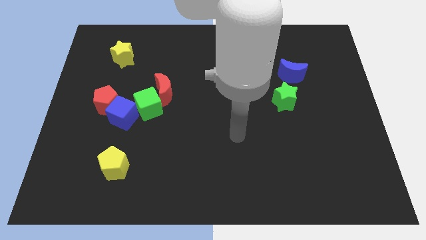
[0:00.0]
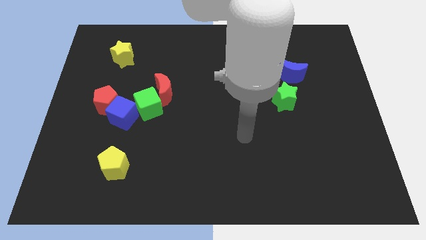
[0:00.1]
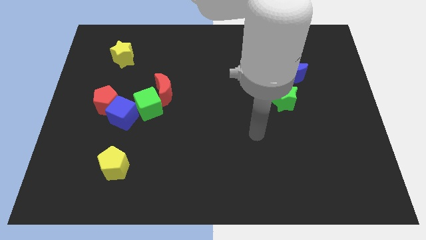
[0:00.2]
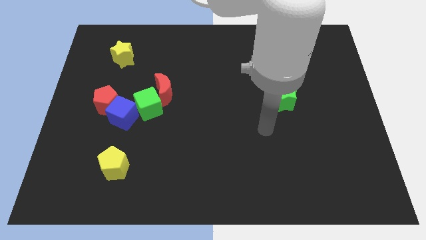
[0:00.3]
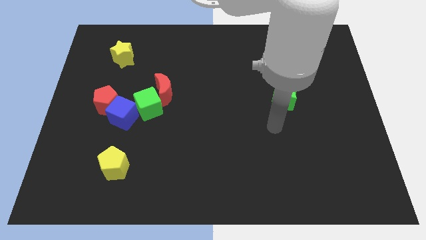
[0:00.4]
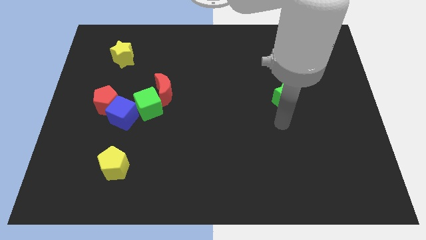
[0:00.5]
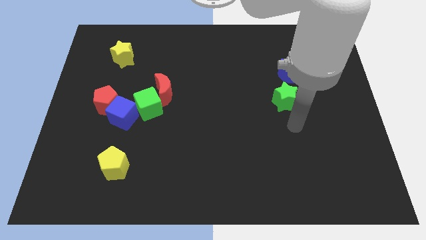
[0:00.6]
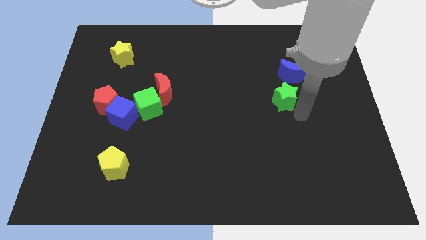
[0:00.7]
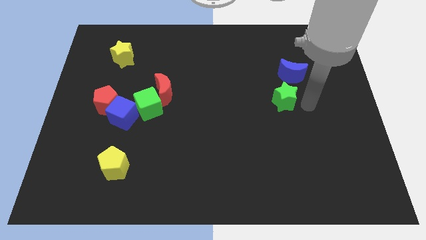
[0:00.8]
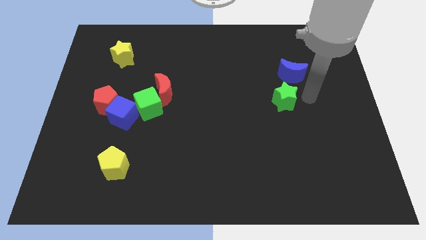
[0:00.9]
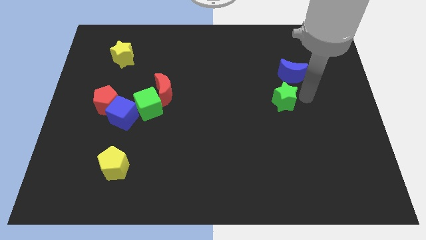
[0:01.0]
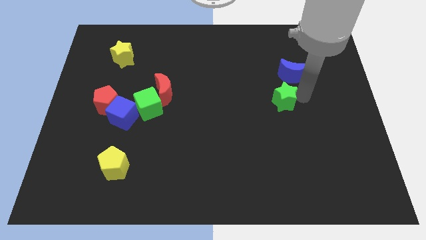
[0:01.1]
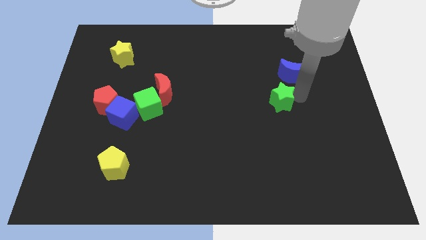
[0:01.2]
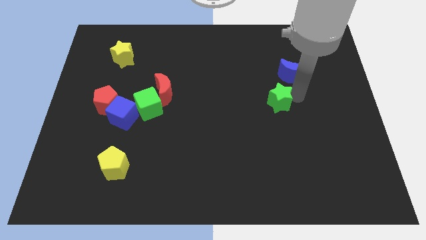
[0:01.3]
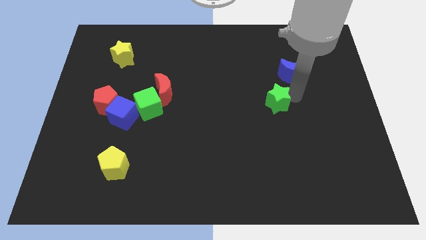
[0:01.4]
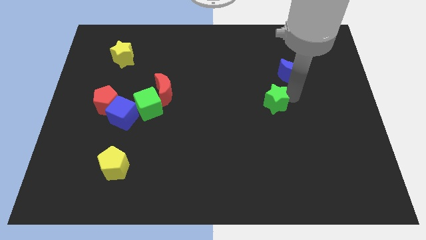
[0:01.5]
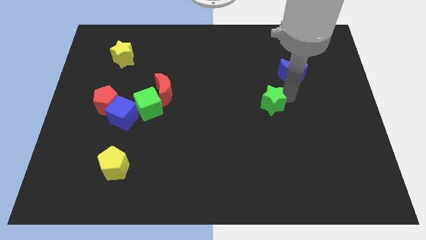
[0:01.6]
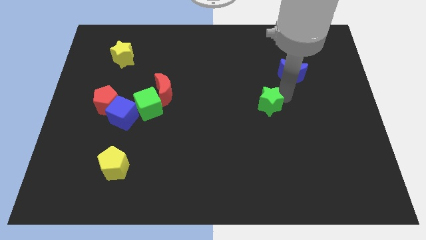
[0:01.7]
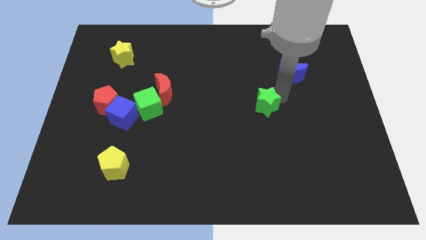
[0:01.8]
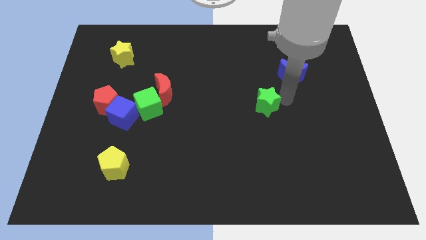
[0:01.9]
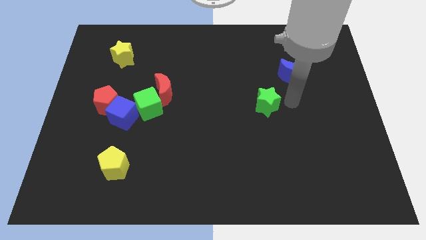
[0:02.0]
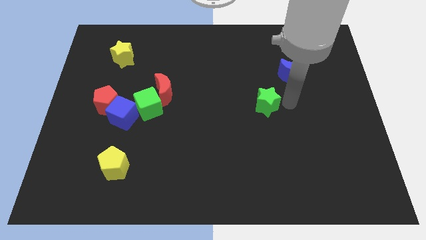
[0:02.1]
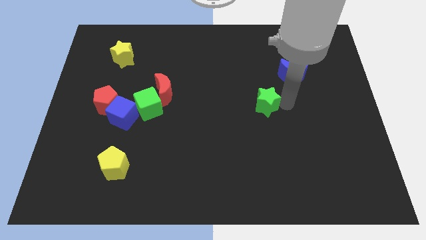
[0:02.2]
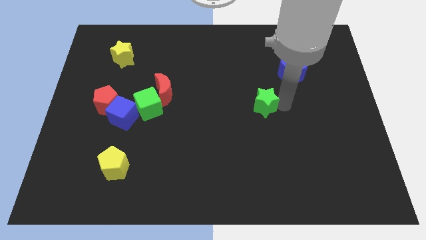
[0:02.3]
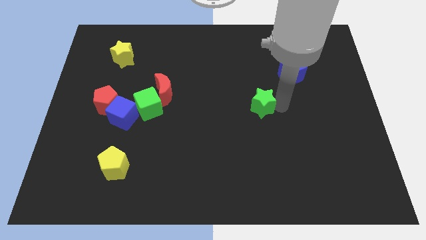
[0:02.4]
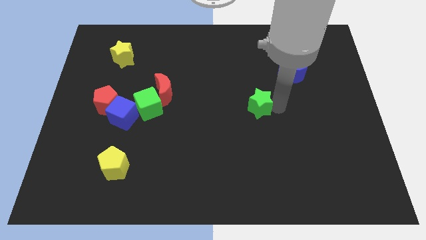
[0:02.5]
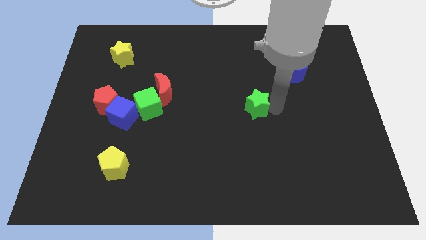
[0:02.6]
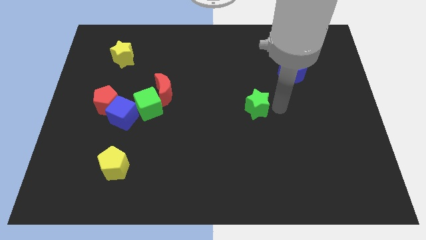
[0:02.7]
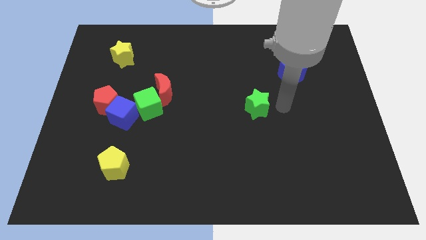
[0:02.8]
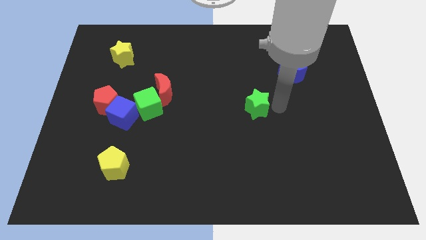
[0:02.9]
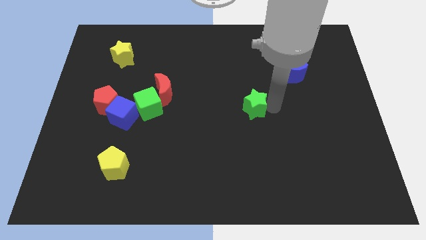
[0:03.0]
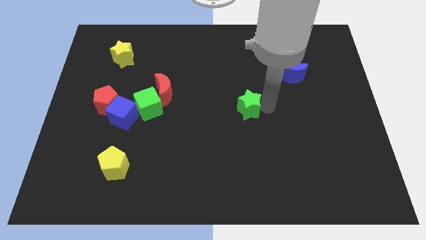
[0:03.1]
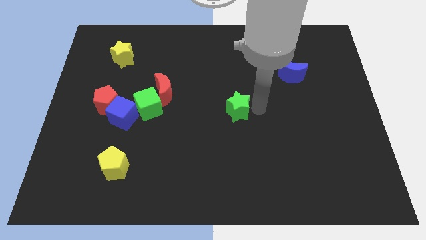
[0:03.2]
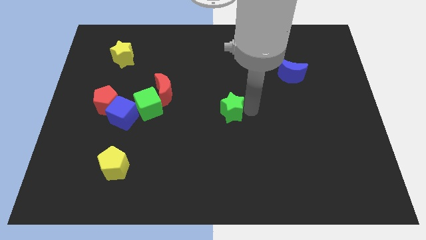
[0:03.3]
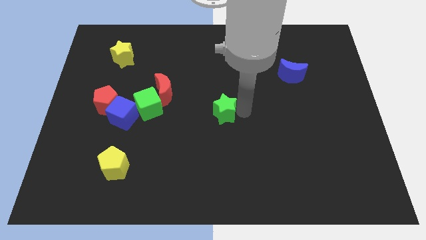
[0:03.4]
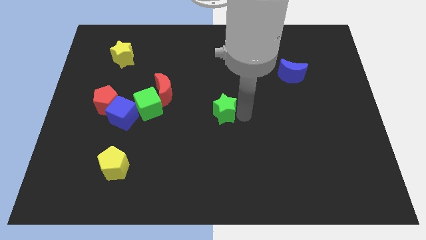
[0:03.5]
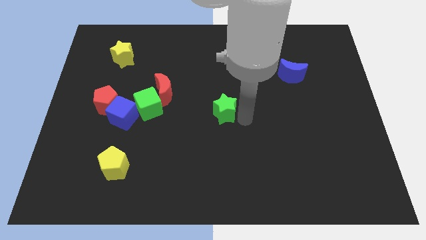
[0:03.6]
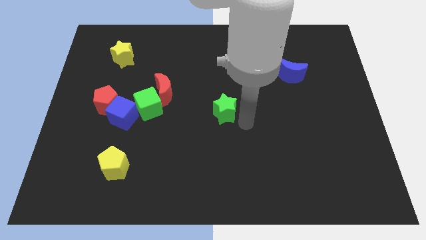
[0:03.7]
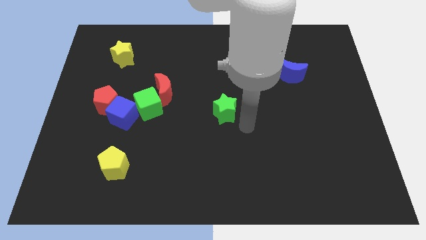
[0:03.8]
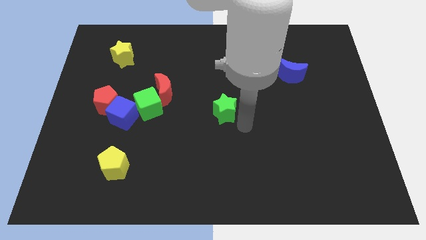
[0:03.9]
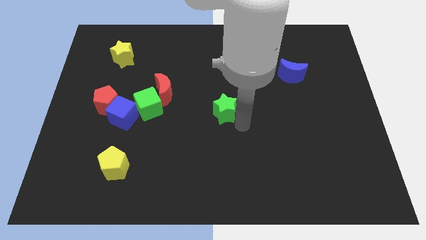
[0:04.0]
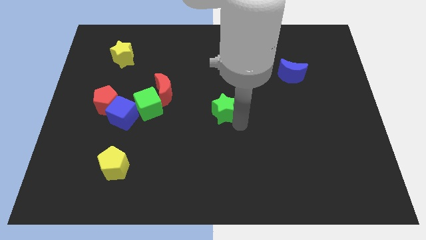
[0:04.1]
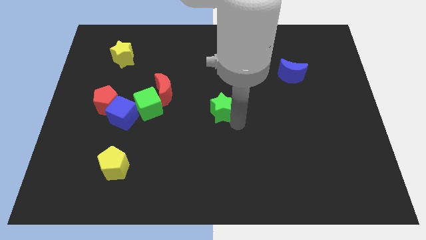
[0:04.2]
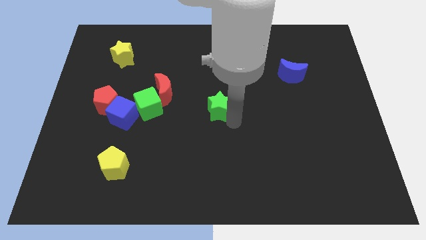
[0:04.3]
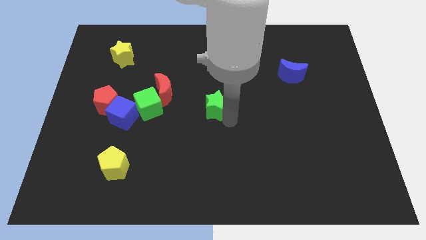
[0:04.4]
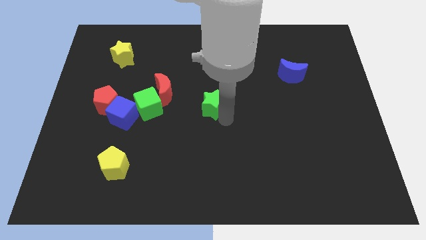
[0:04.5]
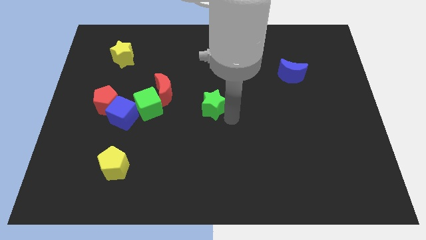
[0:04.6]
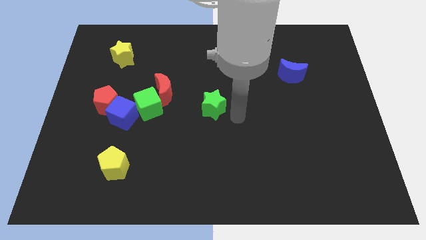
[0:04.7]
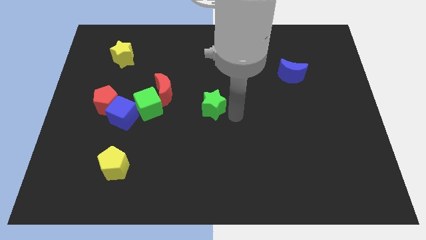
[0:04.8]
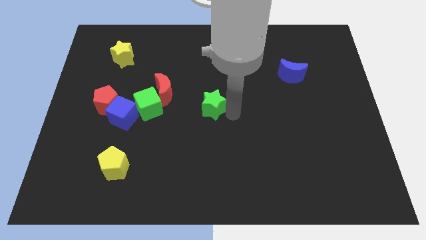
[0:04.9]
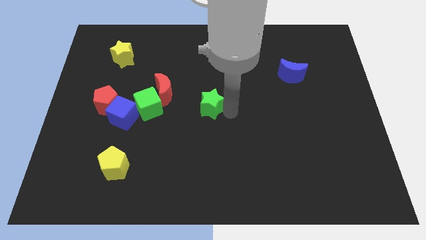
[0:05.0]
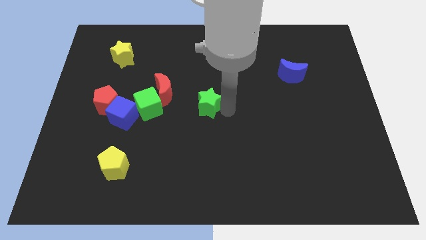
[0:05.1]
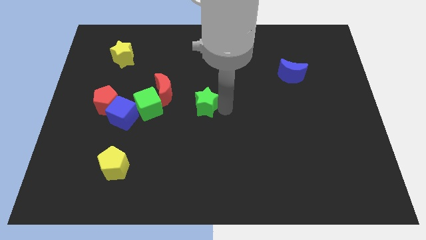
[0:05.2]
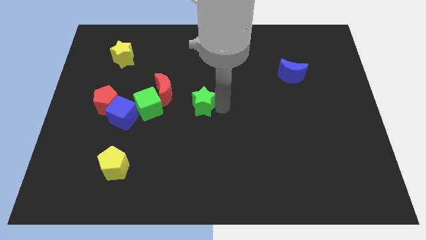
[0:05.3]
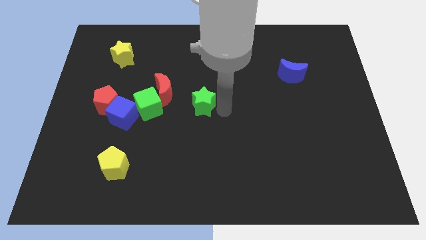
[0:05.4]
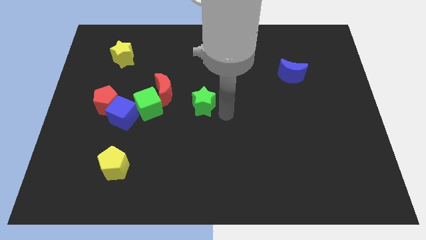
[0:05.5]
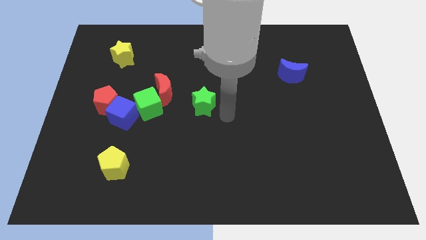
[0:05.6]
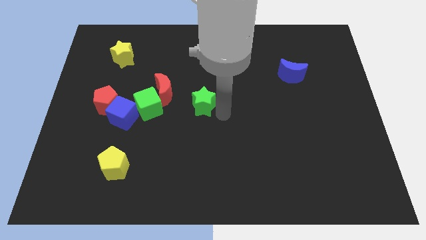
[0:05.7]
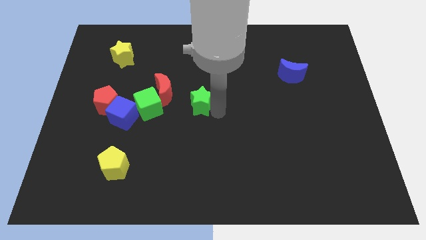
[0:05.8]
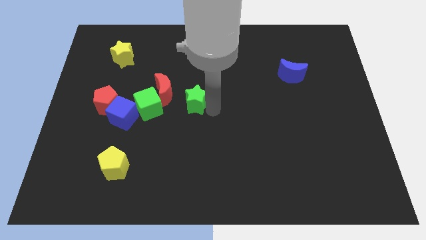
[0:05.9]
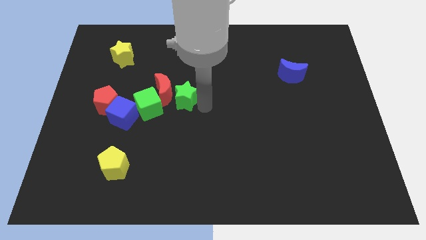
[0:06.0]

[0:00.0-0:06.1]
move the green star close to the red moon
